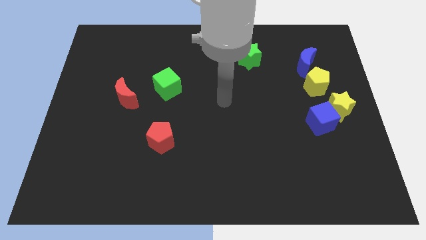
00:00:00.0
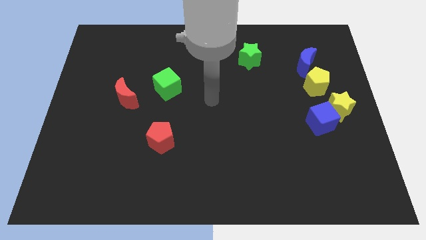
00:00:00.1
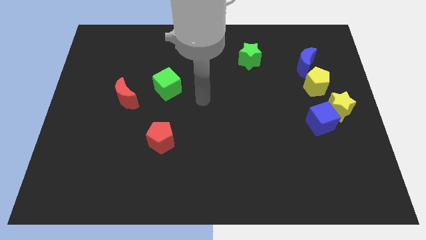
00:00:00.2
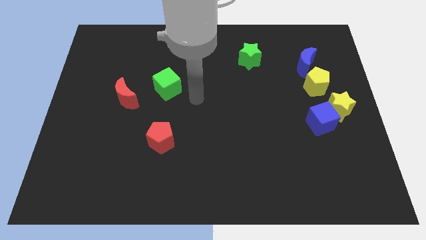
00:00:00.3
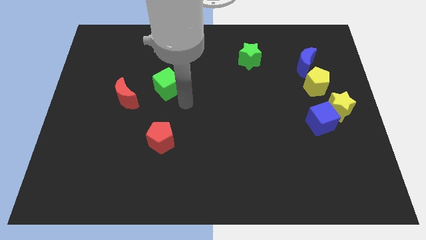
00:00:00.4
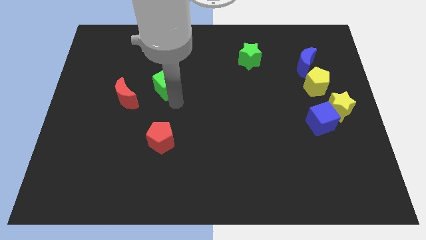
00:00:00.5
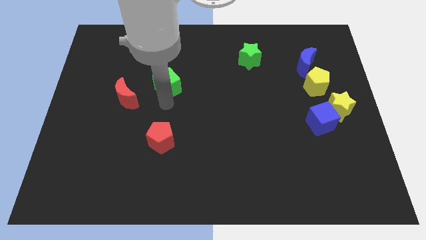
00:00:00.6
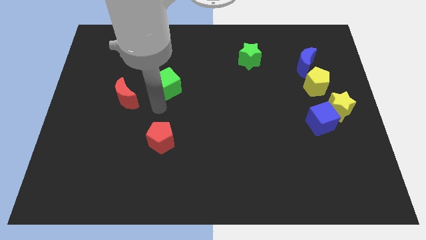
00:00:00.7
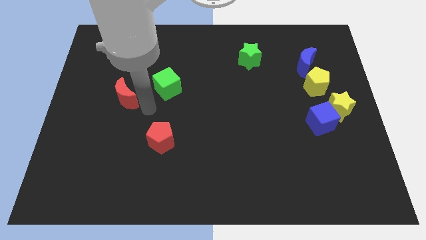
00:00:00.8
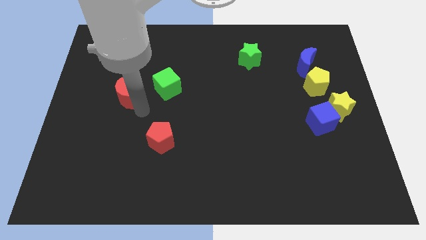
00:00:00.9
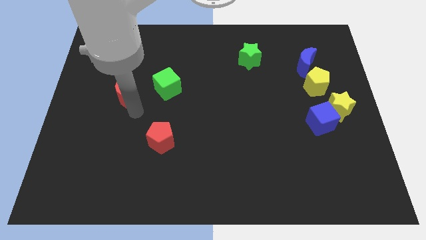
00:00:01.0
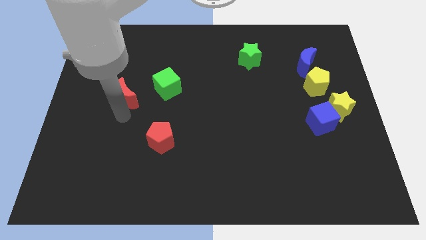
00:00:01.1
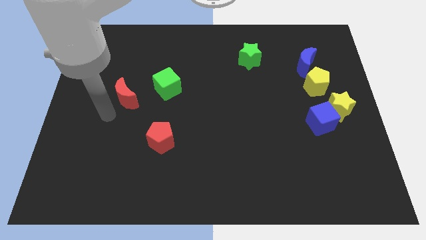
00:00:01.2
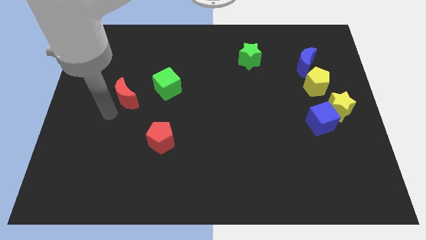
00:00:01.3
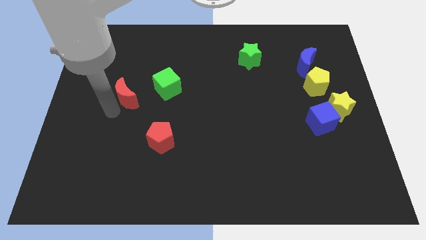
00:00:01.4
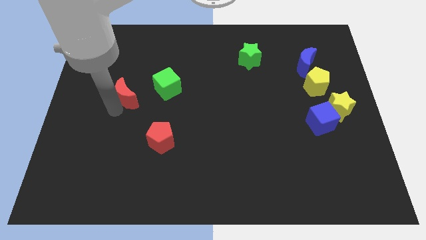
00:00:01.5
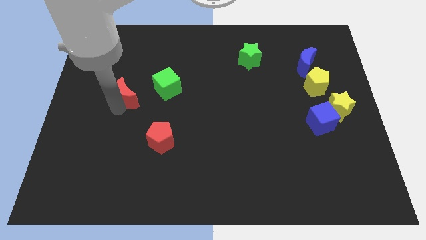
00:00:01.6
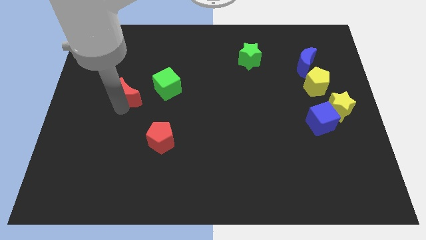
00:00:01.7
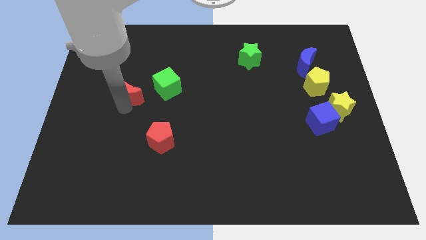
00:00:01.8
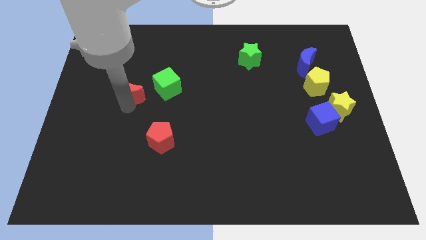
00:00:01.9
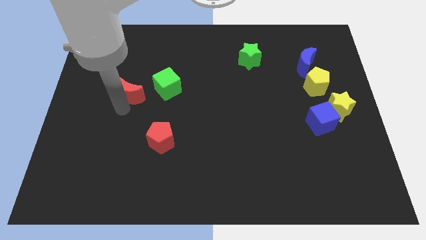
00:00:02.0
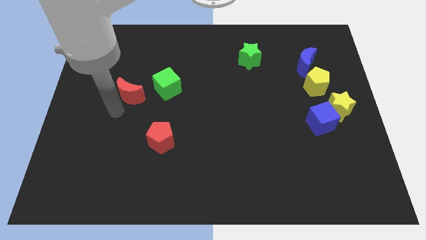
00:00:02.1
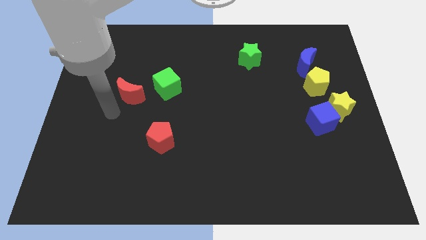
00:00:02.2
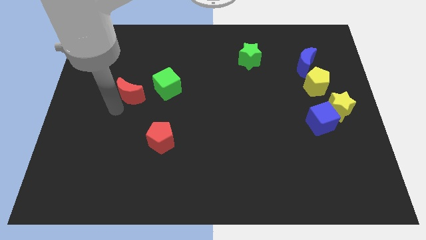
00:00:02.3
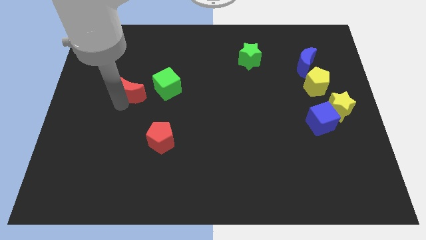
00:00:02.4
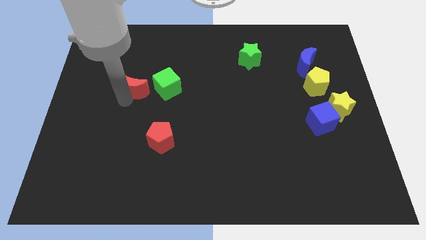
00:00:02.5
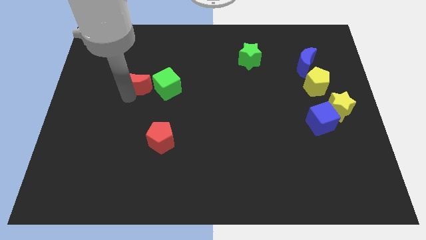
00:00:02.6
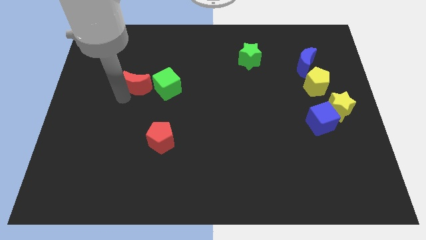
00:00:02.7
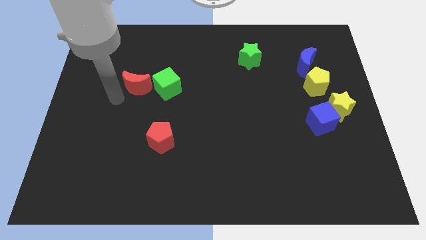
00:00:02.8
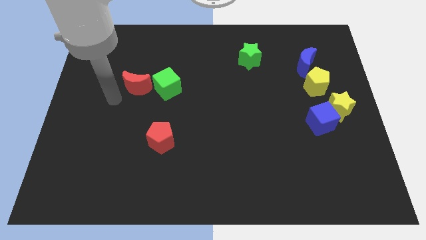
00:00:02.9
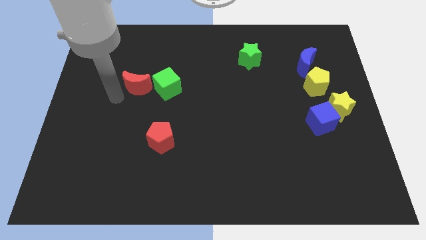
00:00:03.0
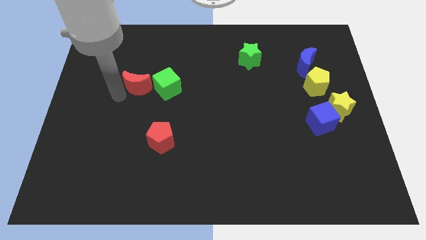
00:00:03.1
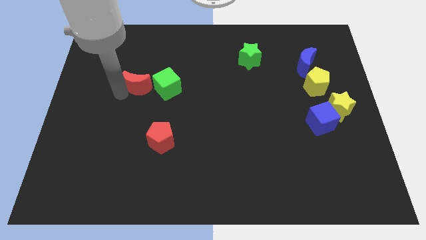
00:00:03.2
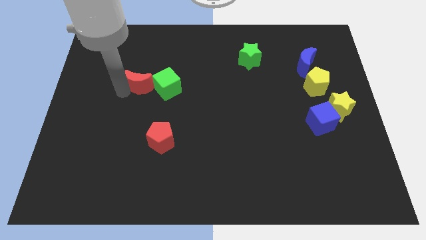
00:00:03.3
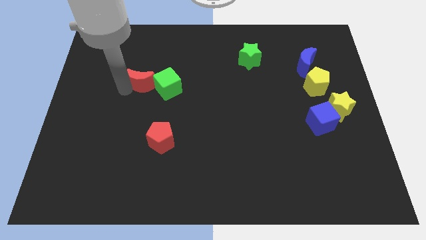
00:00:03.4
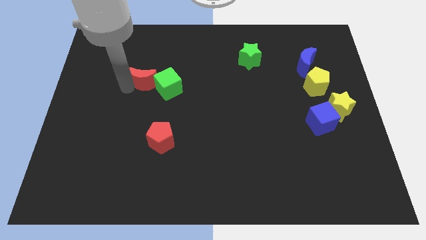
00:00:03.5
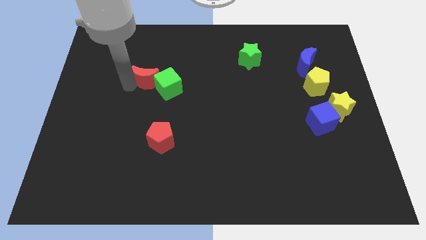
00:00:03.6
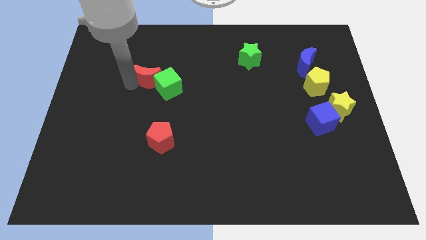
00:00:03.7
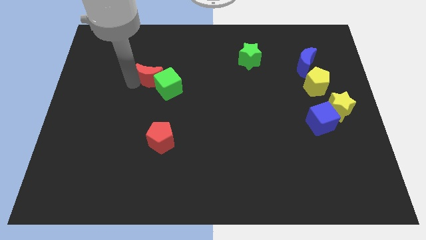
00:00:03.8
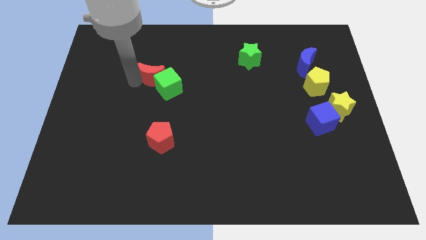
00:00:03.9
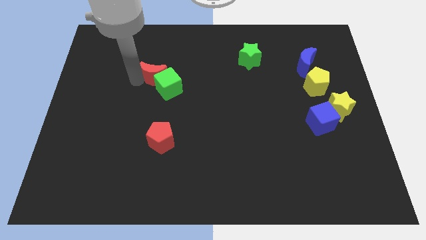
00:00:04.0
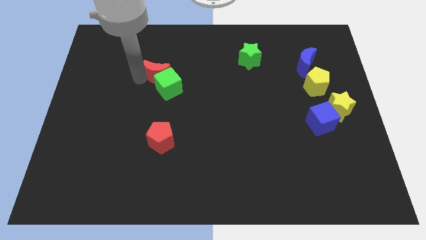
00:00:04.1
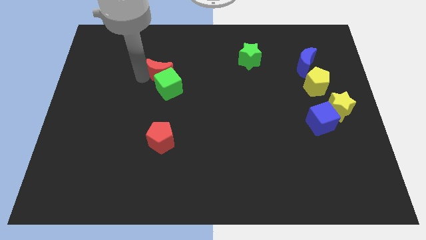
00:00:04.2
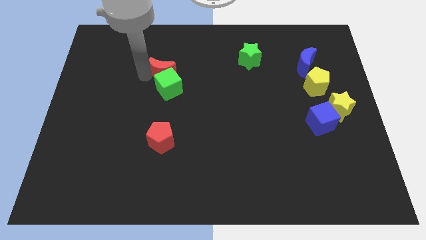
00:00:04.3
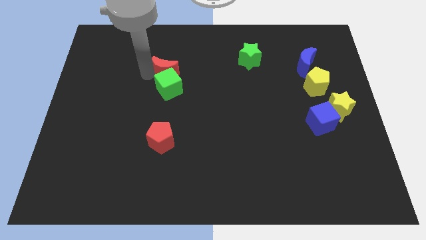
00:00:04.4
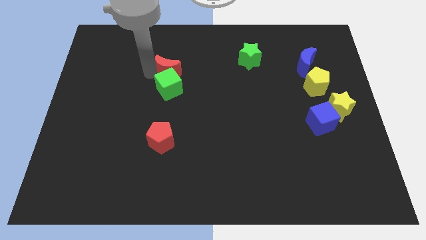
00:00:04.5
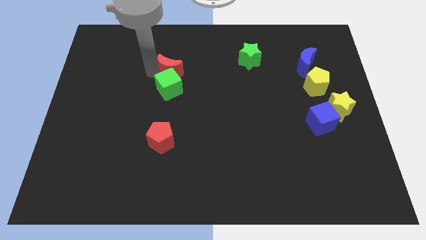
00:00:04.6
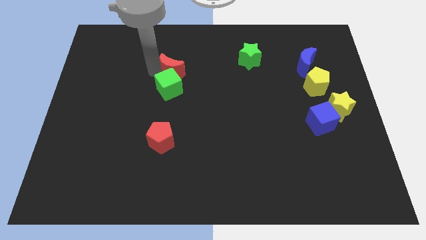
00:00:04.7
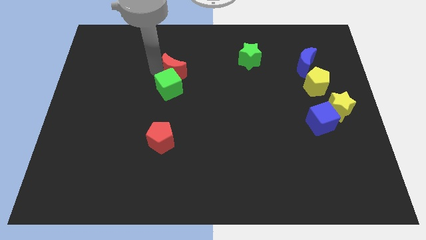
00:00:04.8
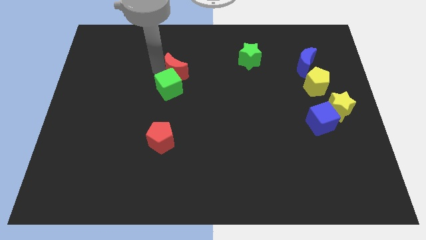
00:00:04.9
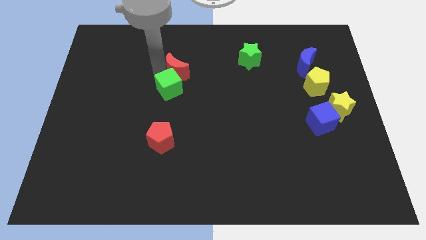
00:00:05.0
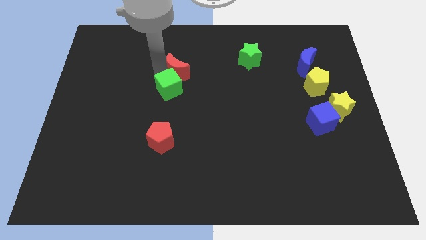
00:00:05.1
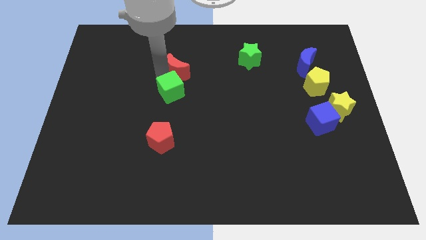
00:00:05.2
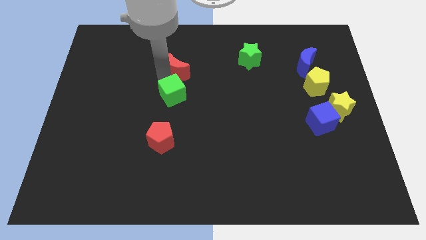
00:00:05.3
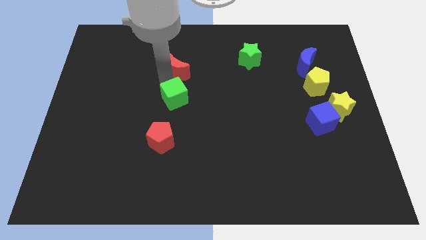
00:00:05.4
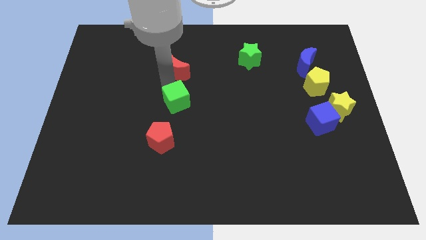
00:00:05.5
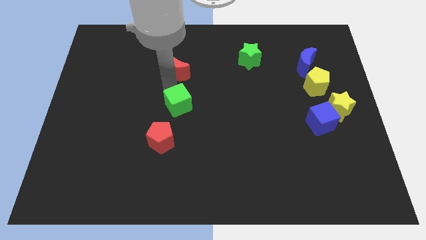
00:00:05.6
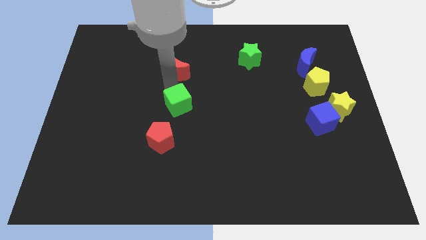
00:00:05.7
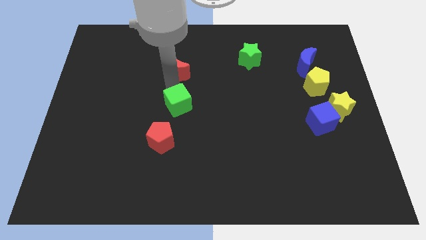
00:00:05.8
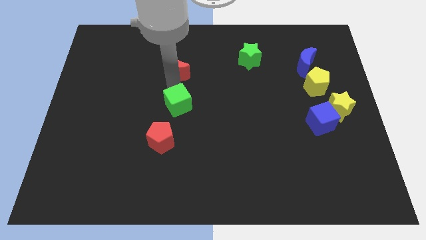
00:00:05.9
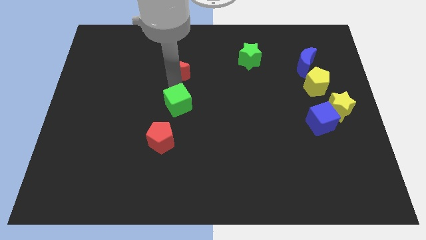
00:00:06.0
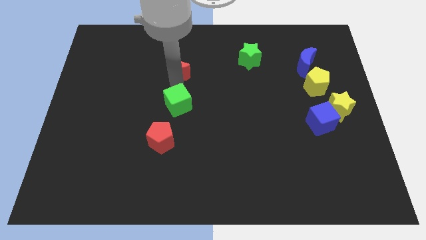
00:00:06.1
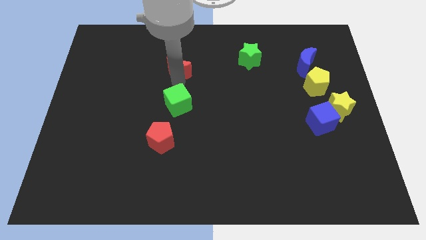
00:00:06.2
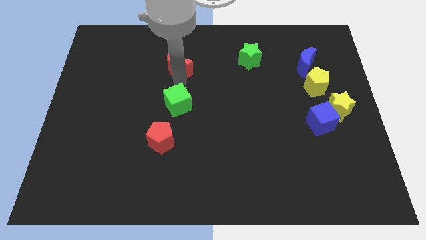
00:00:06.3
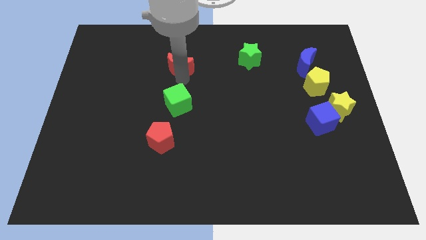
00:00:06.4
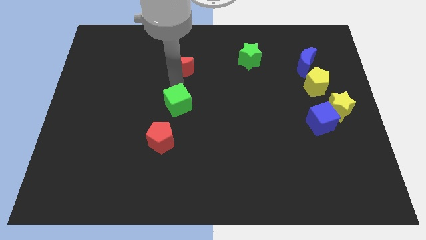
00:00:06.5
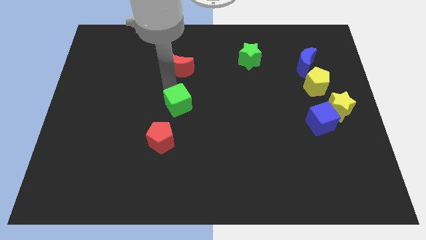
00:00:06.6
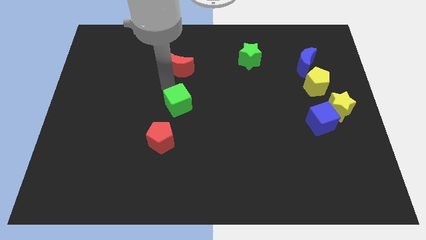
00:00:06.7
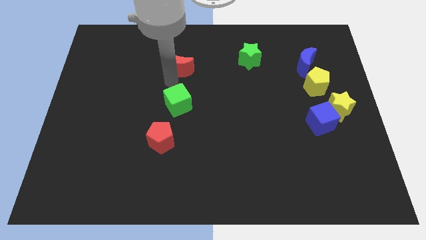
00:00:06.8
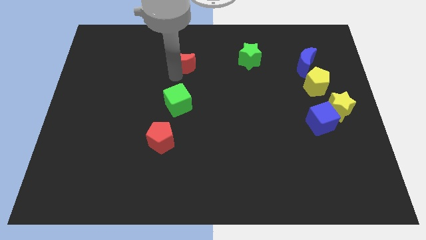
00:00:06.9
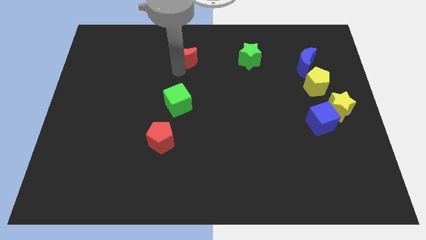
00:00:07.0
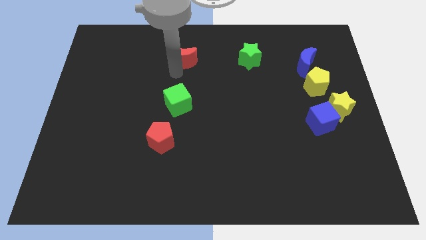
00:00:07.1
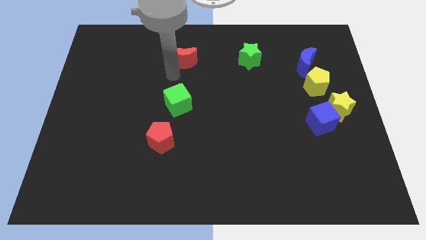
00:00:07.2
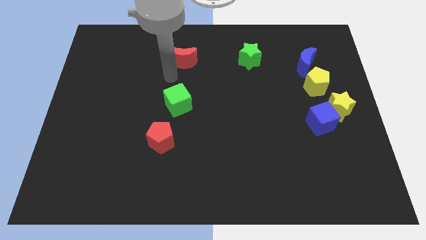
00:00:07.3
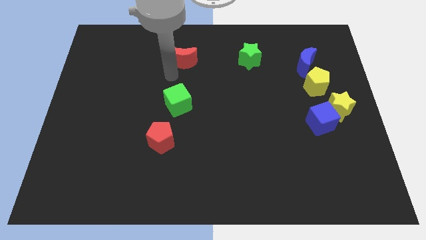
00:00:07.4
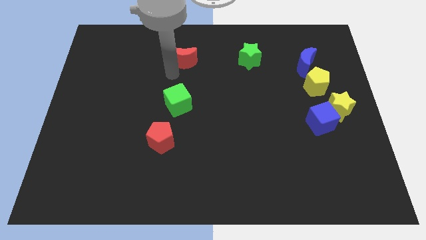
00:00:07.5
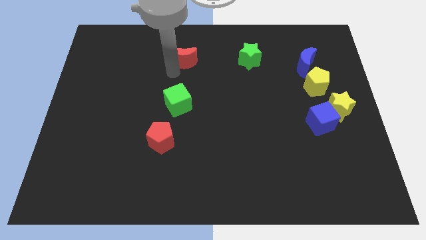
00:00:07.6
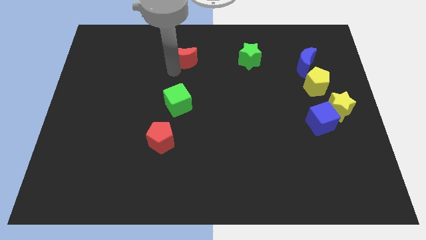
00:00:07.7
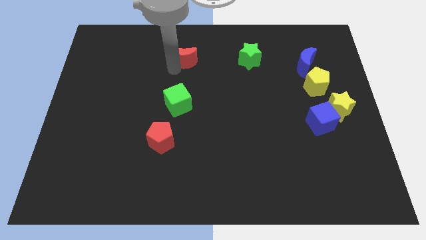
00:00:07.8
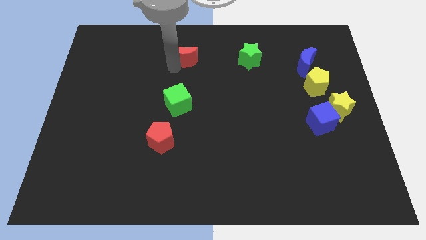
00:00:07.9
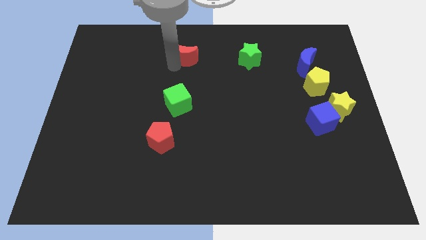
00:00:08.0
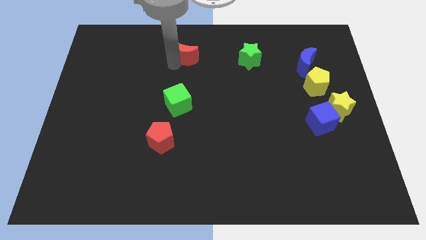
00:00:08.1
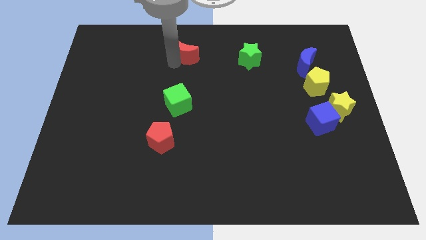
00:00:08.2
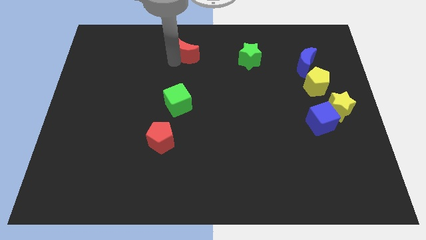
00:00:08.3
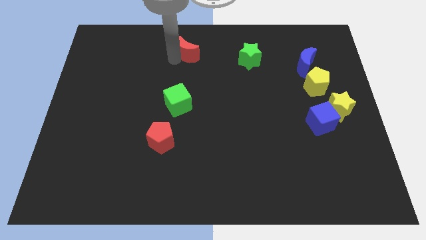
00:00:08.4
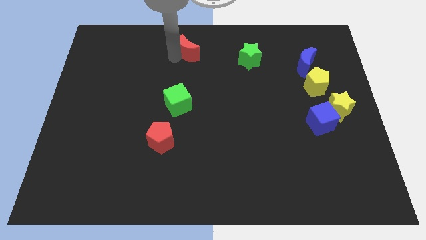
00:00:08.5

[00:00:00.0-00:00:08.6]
slide the red moon to the towards your base
